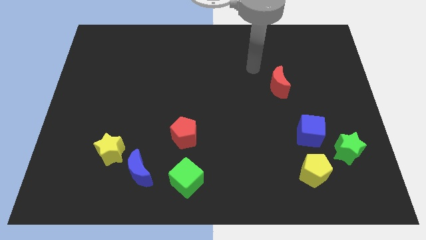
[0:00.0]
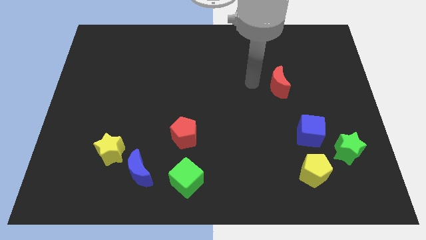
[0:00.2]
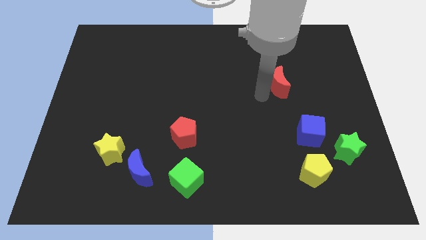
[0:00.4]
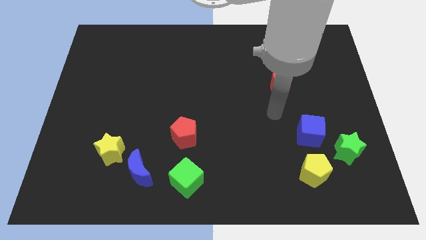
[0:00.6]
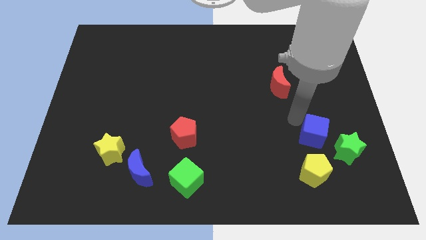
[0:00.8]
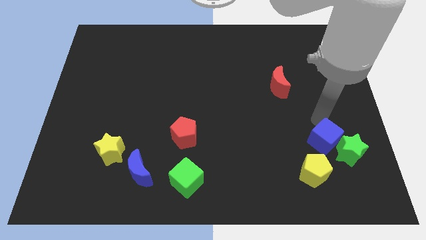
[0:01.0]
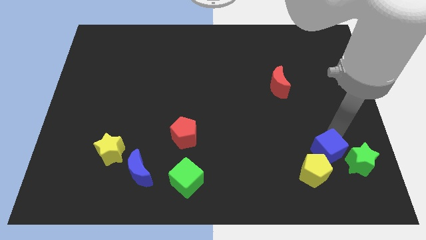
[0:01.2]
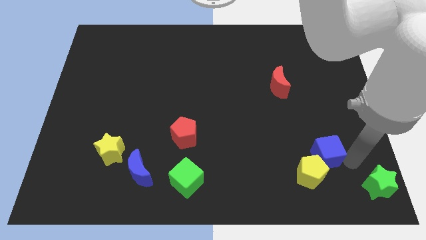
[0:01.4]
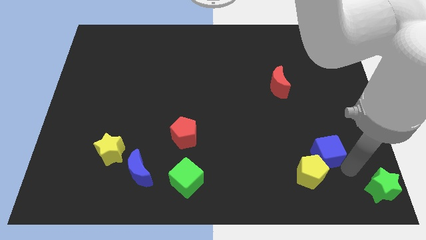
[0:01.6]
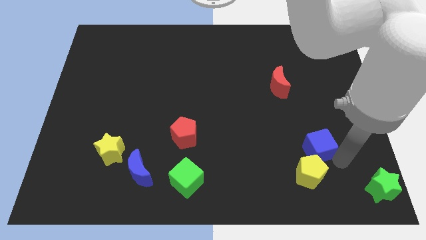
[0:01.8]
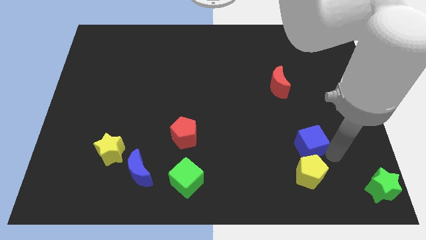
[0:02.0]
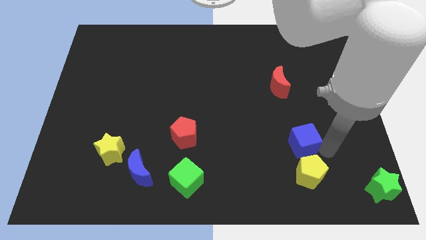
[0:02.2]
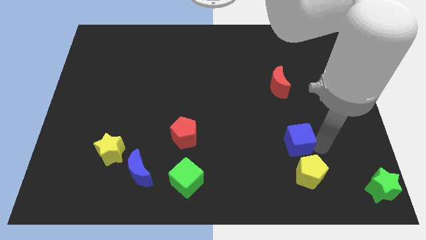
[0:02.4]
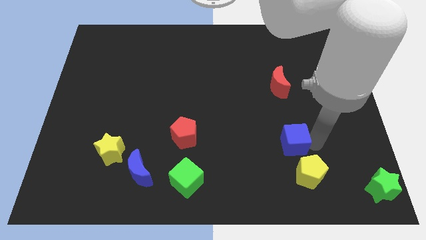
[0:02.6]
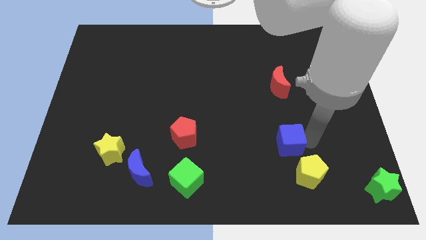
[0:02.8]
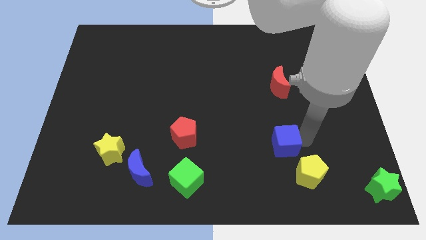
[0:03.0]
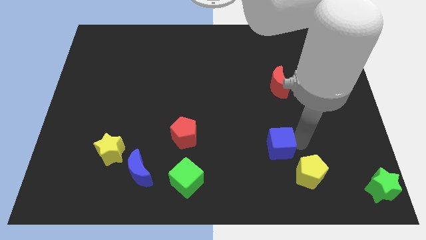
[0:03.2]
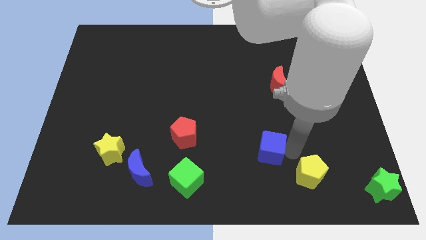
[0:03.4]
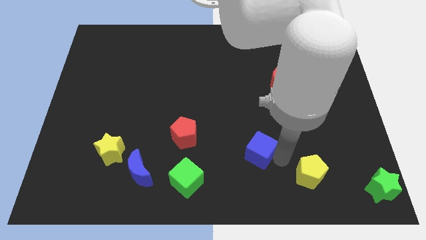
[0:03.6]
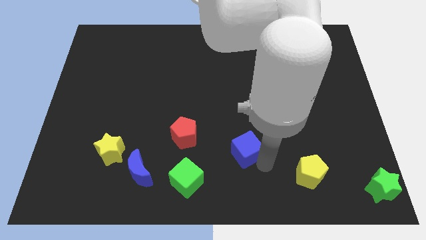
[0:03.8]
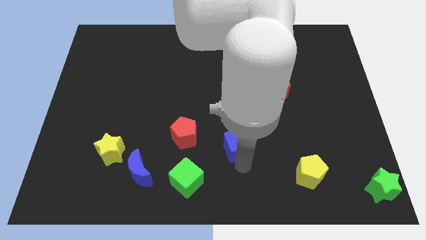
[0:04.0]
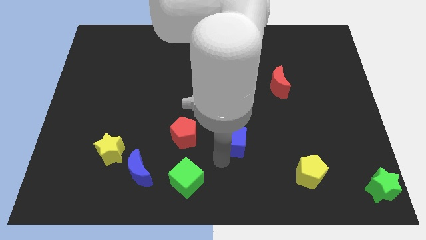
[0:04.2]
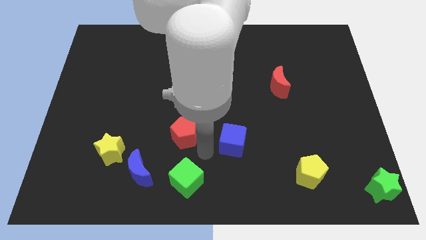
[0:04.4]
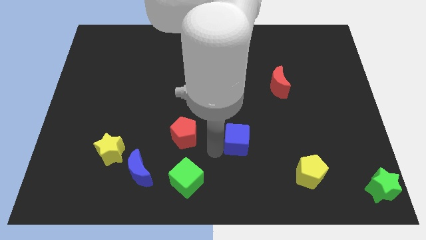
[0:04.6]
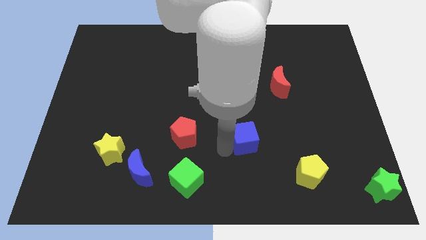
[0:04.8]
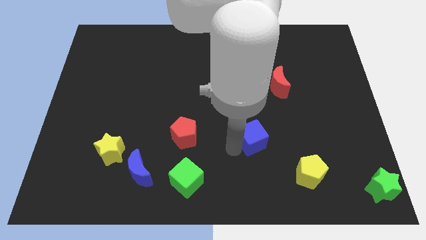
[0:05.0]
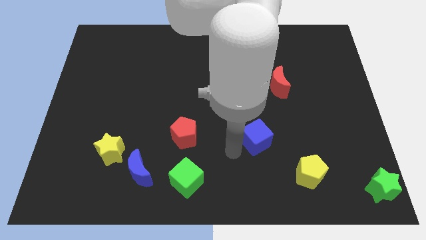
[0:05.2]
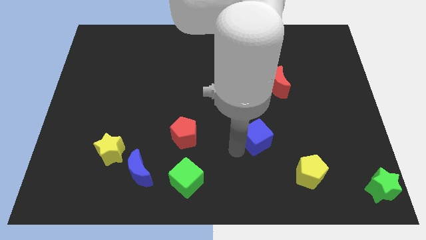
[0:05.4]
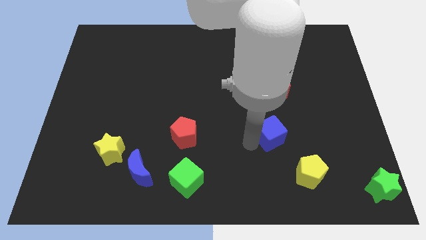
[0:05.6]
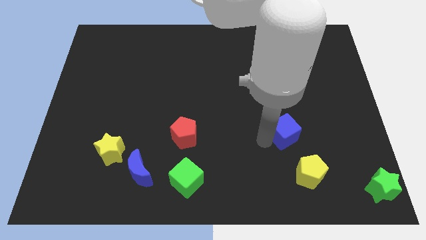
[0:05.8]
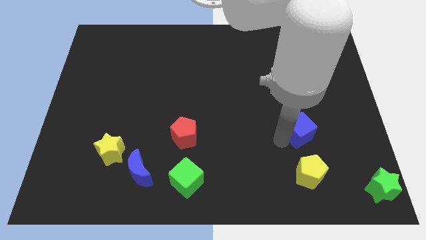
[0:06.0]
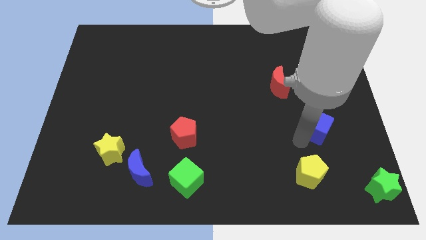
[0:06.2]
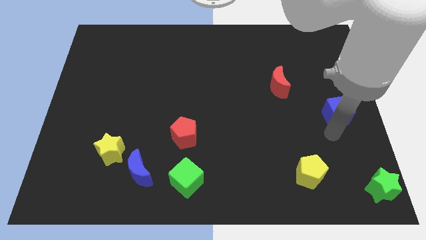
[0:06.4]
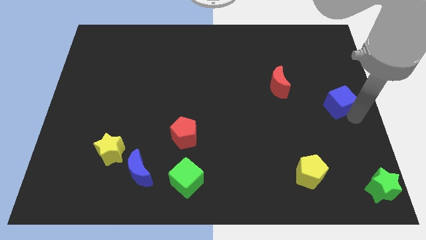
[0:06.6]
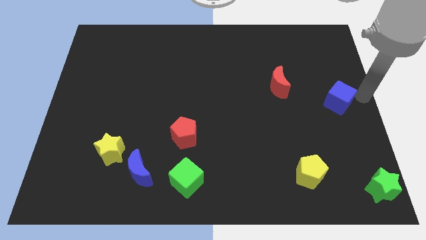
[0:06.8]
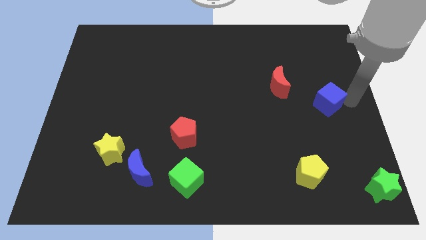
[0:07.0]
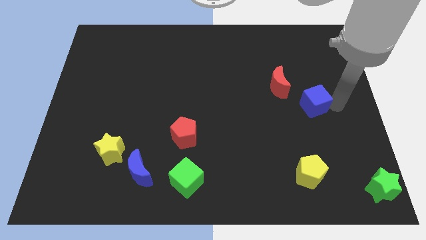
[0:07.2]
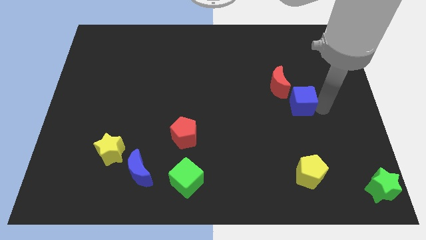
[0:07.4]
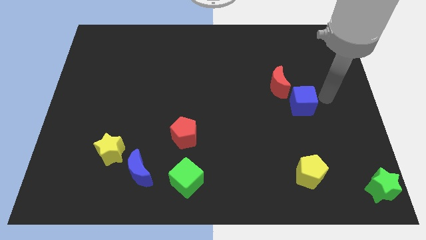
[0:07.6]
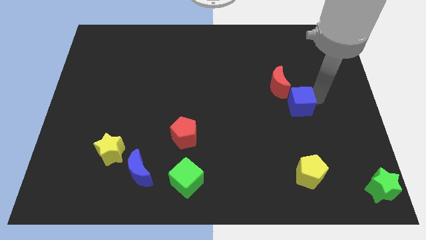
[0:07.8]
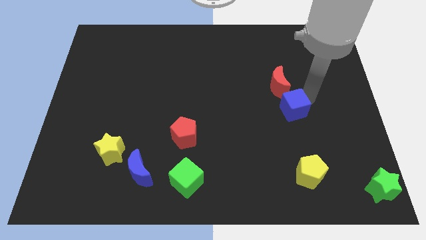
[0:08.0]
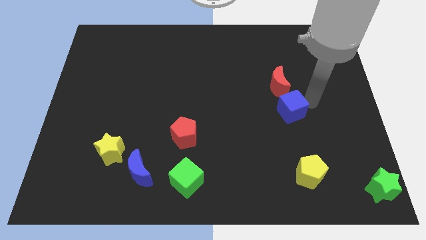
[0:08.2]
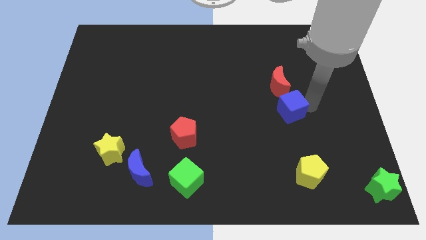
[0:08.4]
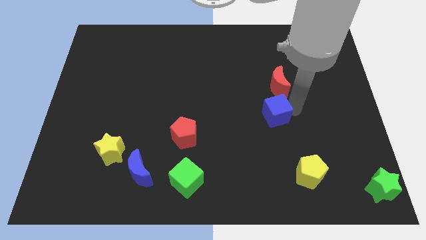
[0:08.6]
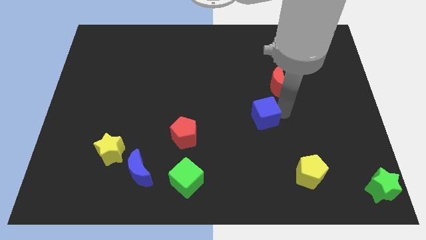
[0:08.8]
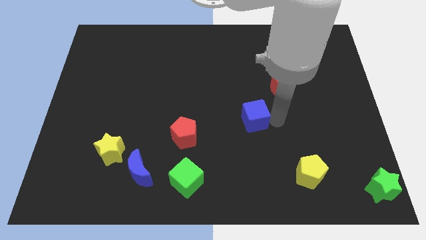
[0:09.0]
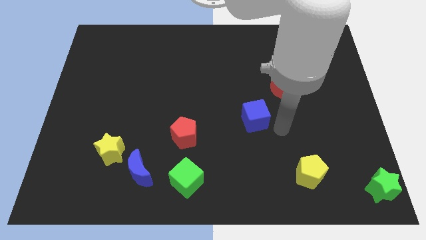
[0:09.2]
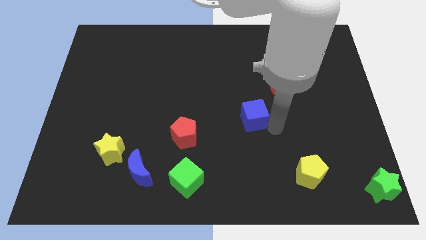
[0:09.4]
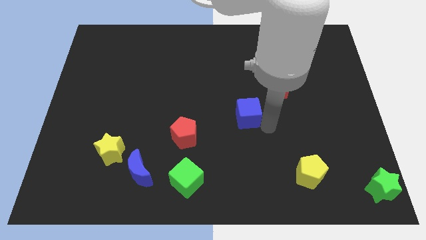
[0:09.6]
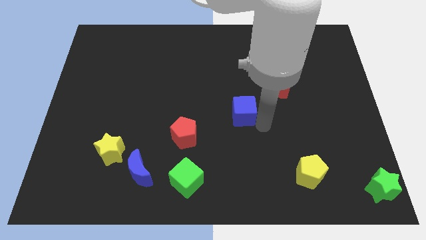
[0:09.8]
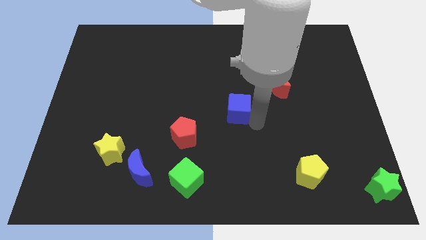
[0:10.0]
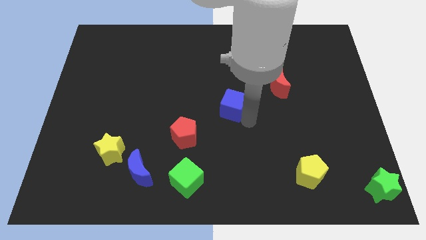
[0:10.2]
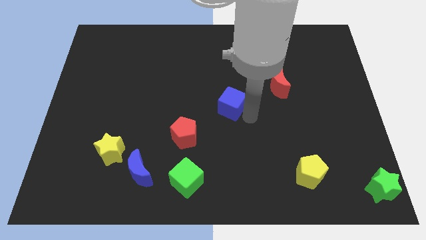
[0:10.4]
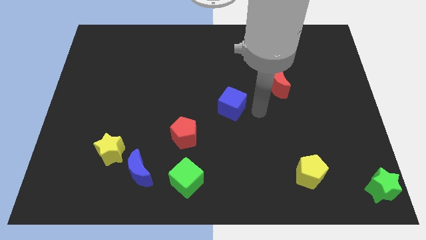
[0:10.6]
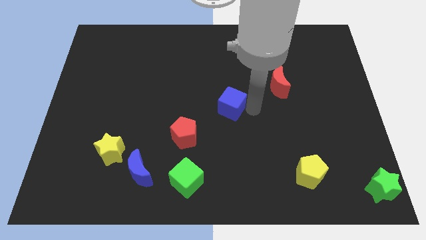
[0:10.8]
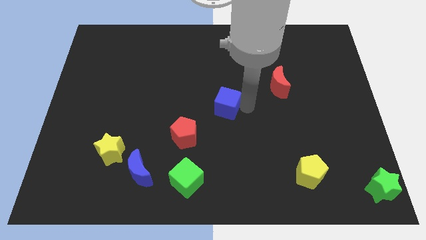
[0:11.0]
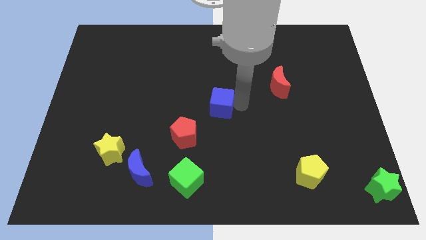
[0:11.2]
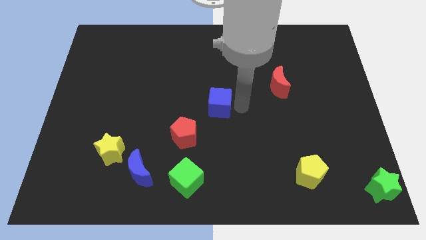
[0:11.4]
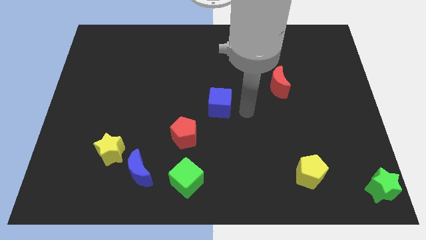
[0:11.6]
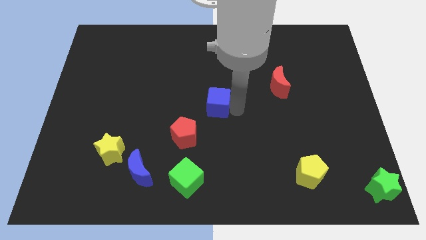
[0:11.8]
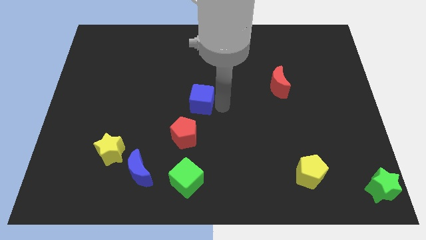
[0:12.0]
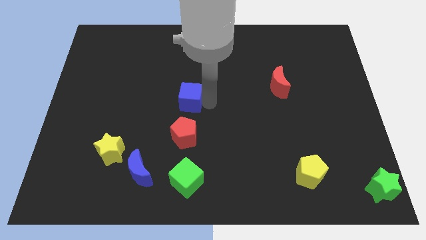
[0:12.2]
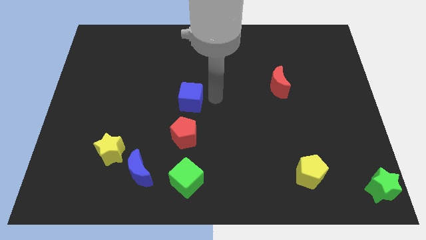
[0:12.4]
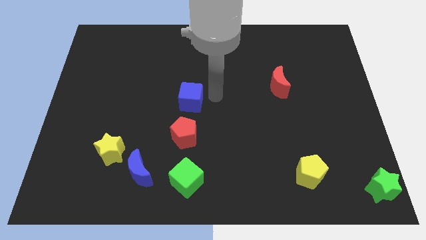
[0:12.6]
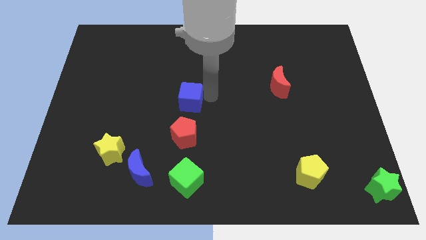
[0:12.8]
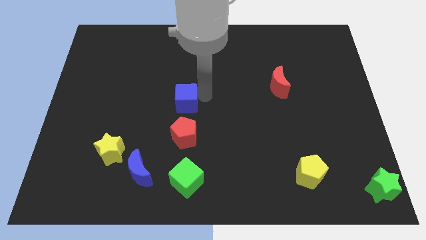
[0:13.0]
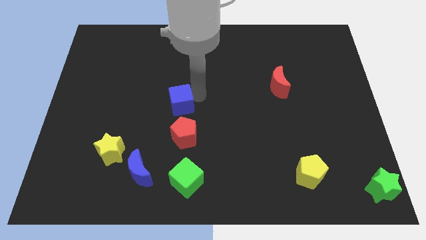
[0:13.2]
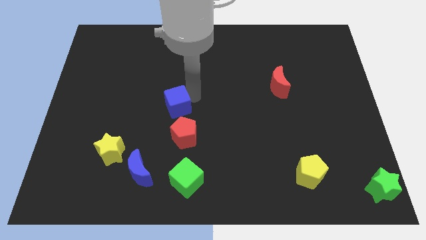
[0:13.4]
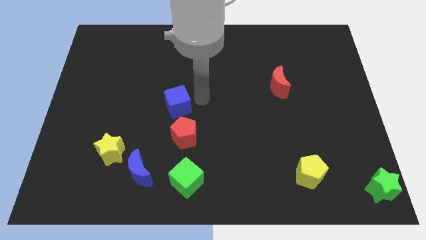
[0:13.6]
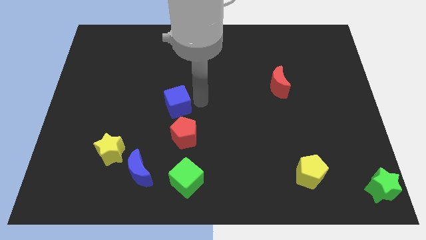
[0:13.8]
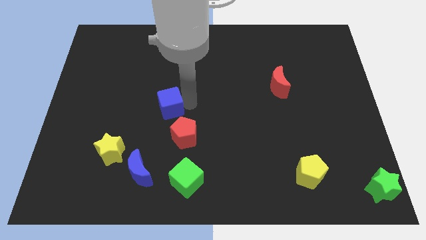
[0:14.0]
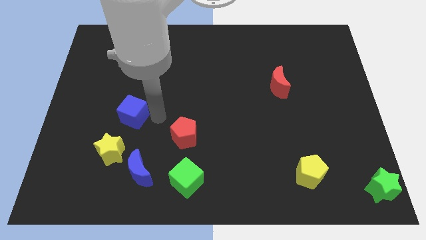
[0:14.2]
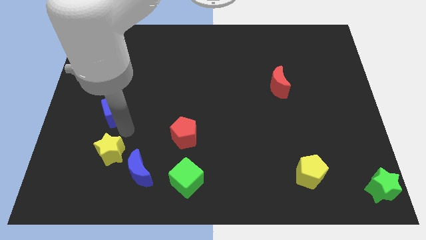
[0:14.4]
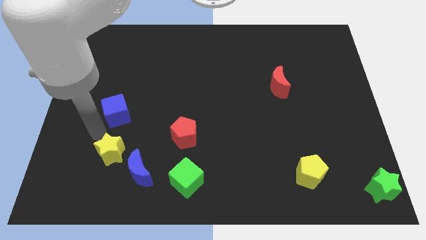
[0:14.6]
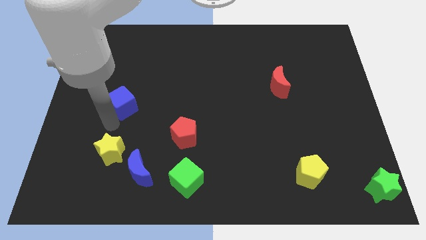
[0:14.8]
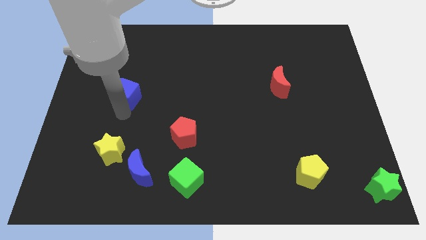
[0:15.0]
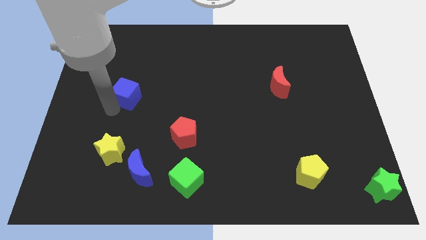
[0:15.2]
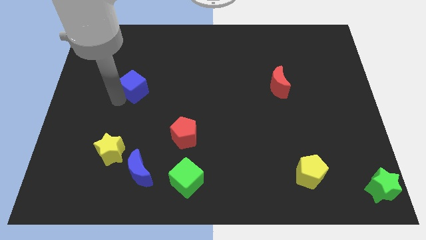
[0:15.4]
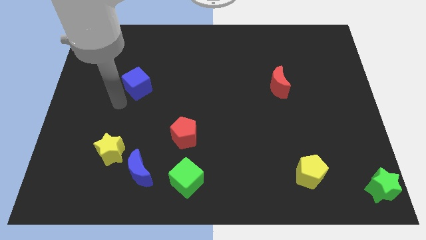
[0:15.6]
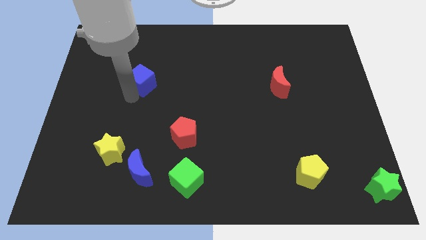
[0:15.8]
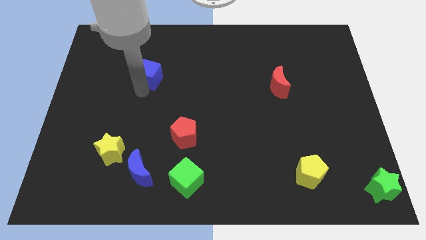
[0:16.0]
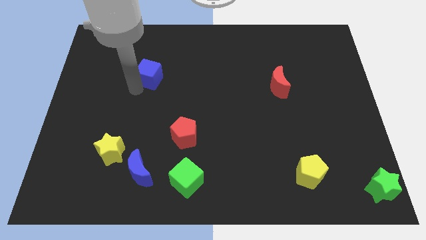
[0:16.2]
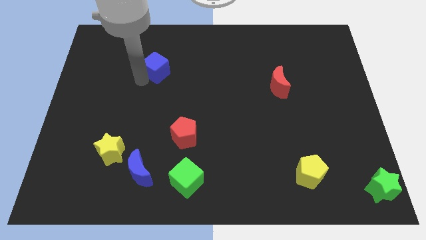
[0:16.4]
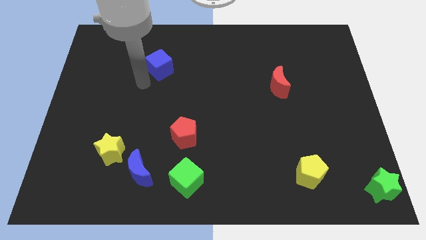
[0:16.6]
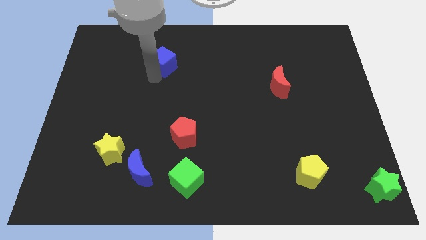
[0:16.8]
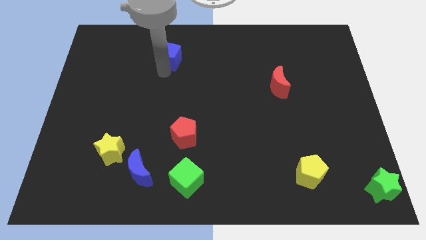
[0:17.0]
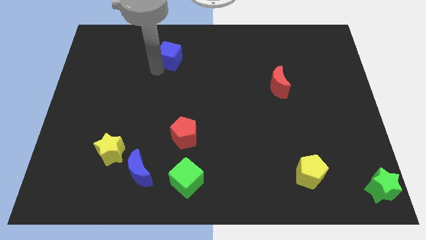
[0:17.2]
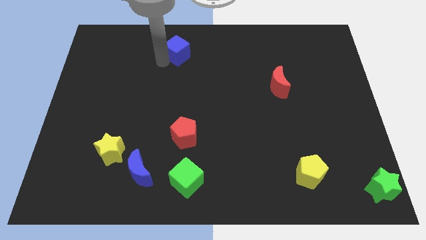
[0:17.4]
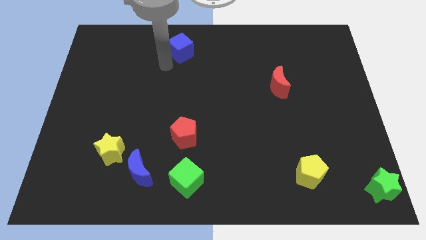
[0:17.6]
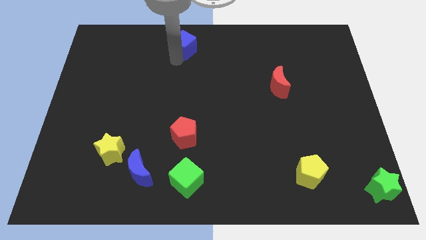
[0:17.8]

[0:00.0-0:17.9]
push the blue cube to the top
